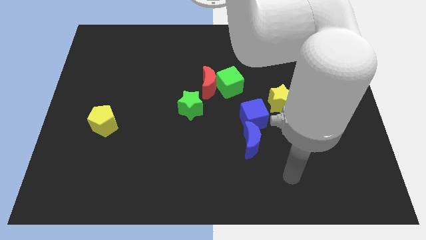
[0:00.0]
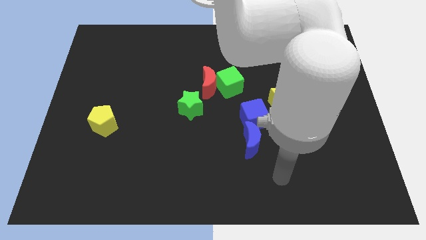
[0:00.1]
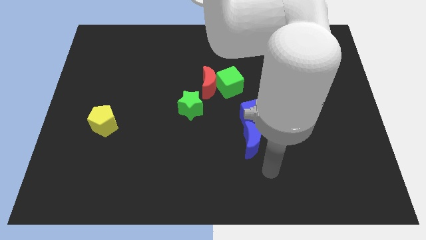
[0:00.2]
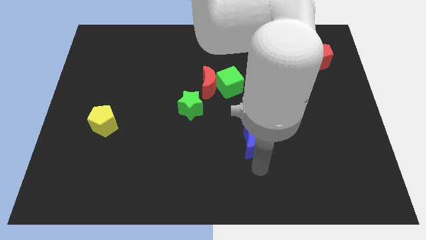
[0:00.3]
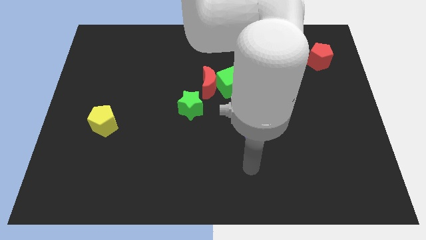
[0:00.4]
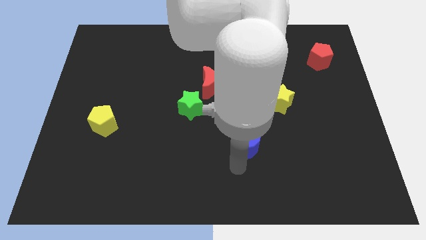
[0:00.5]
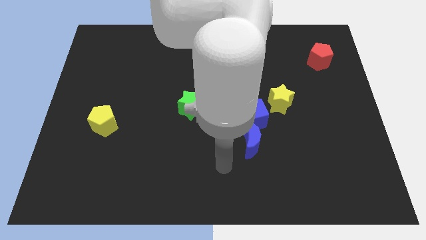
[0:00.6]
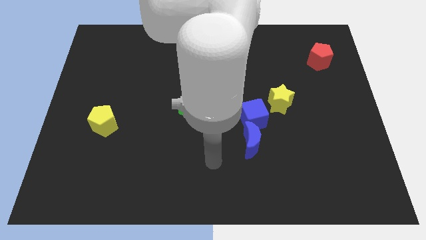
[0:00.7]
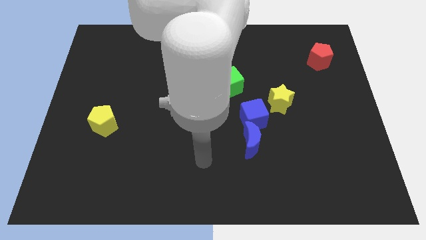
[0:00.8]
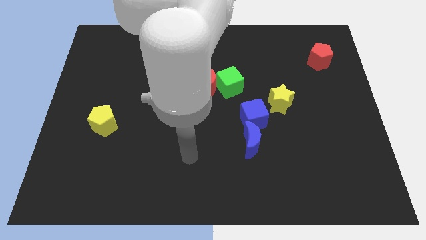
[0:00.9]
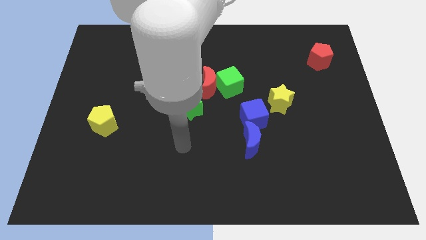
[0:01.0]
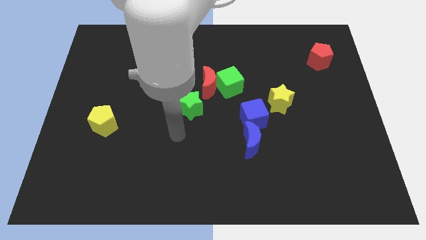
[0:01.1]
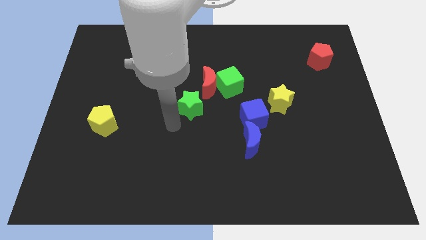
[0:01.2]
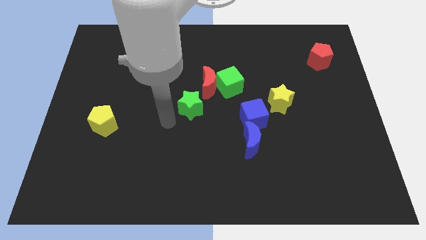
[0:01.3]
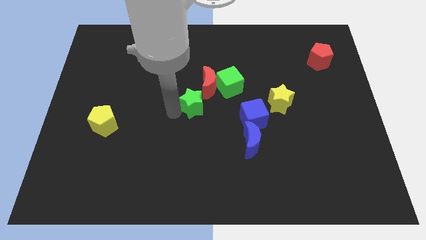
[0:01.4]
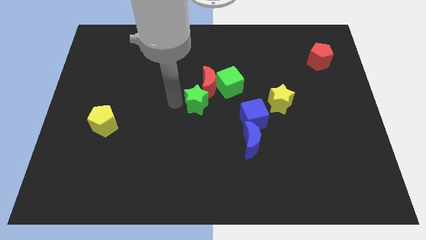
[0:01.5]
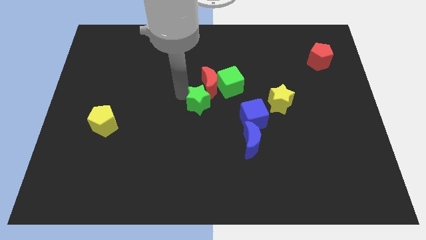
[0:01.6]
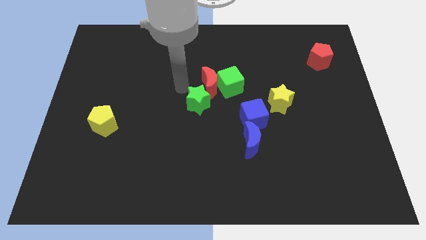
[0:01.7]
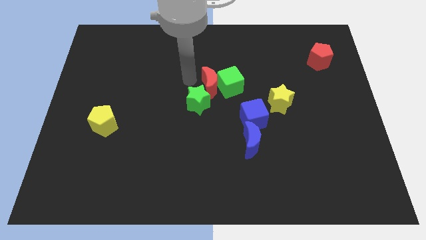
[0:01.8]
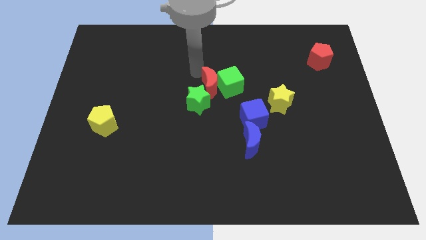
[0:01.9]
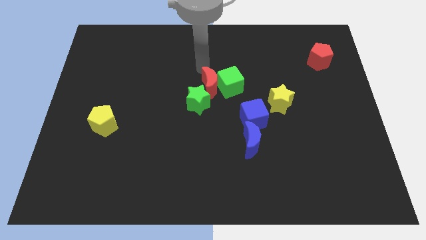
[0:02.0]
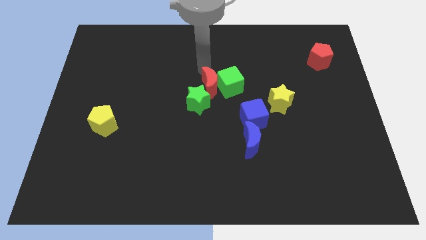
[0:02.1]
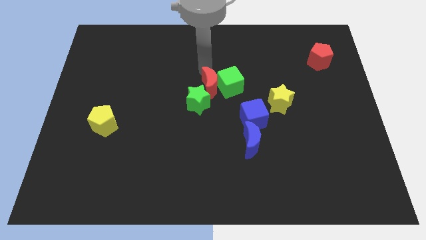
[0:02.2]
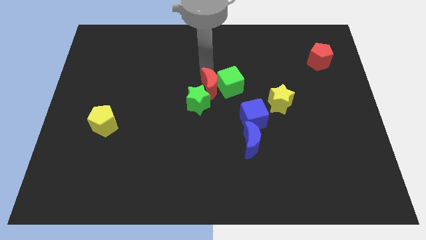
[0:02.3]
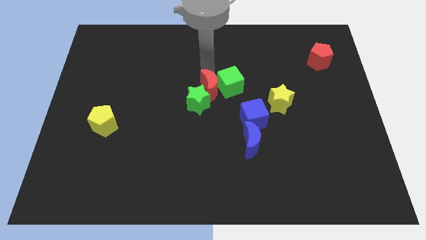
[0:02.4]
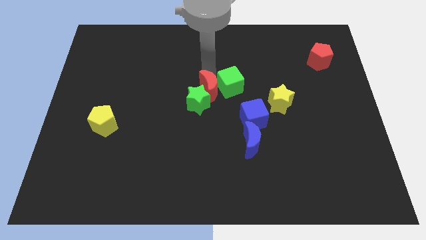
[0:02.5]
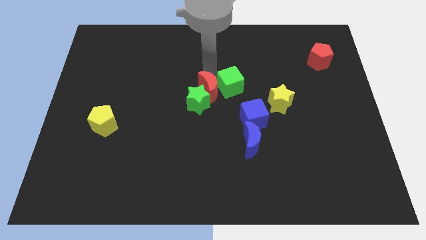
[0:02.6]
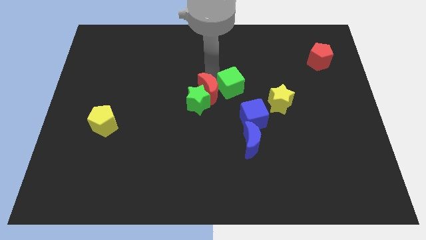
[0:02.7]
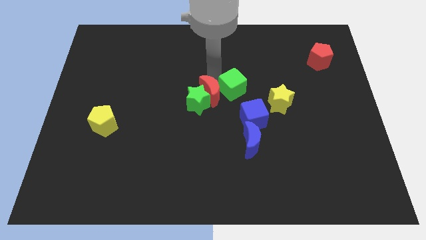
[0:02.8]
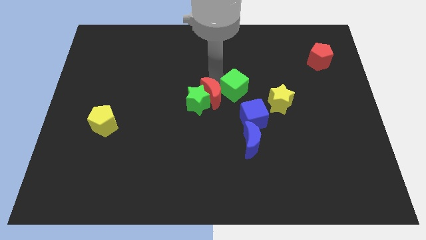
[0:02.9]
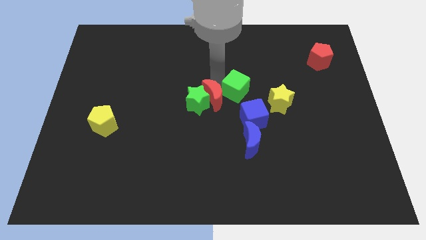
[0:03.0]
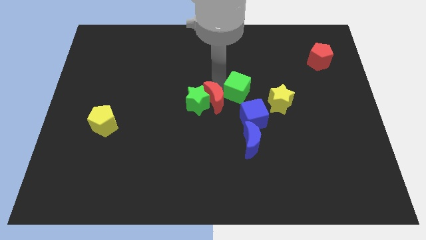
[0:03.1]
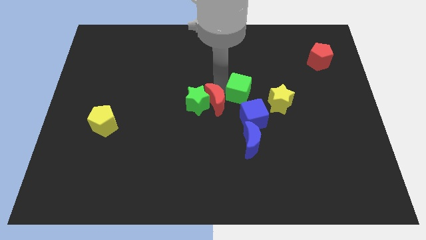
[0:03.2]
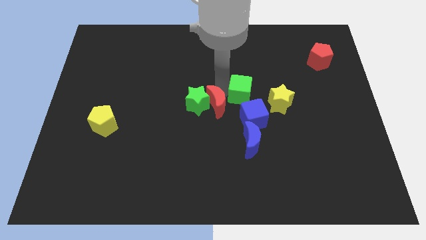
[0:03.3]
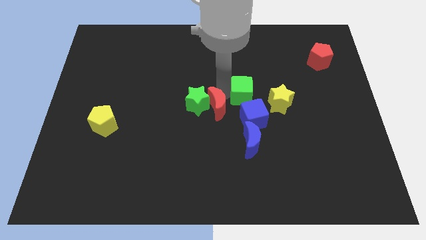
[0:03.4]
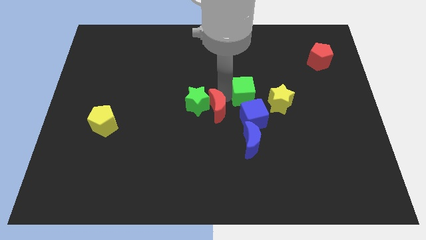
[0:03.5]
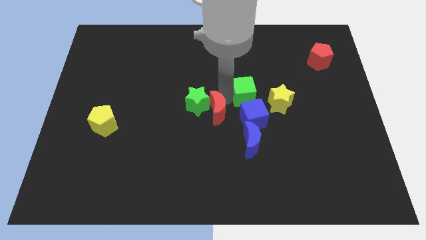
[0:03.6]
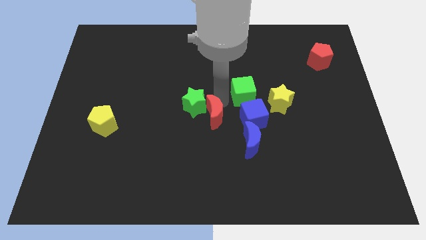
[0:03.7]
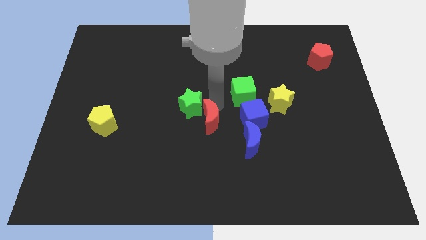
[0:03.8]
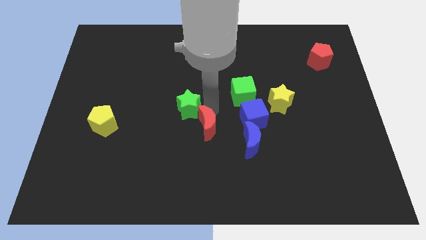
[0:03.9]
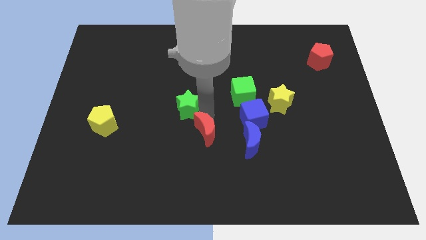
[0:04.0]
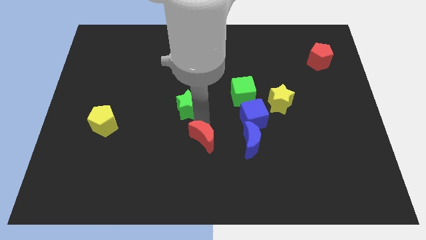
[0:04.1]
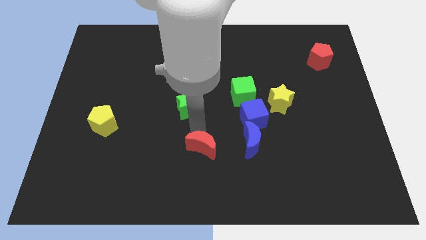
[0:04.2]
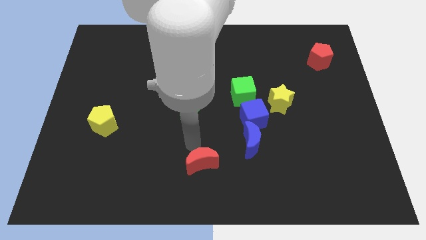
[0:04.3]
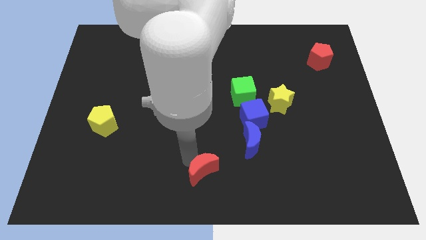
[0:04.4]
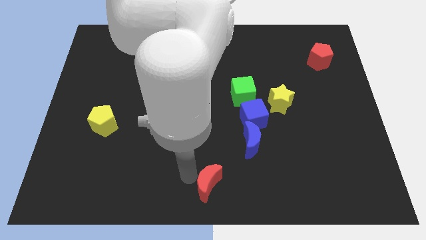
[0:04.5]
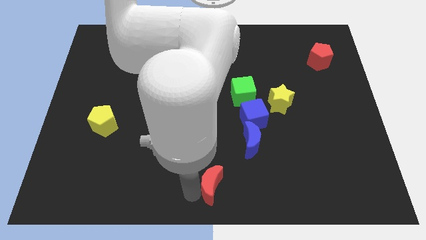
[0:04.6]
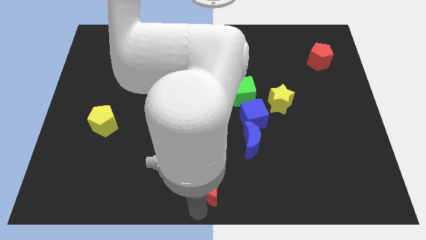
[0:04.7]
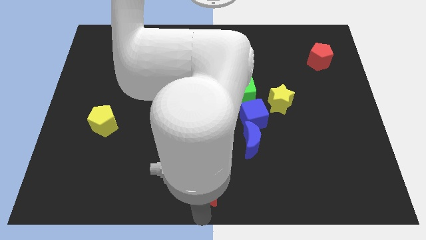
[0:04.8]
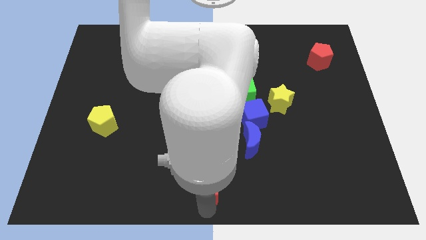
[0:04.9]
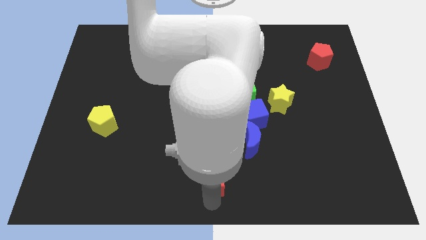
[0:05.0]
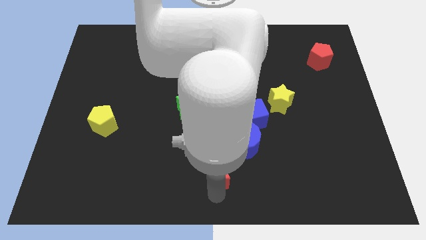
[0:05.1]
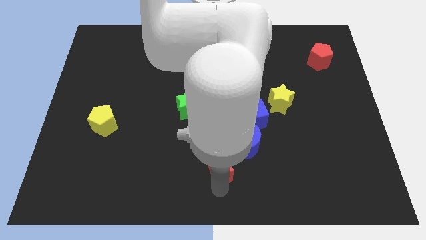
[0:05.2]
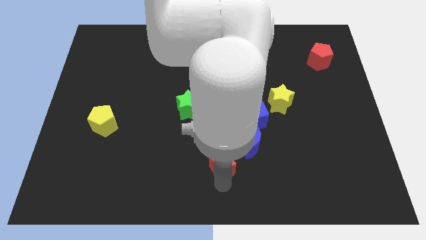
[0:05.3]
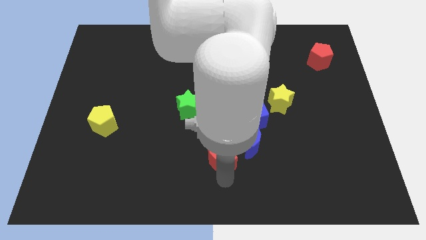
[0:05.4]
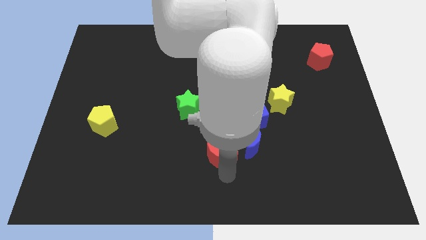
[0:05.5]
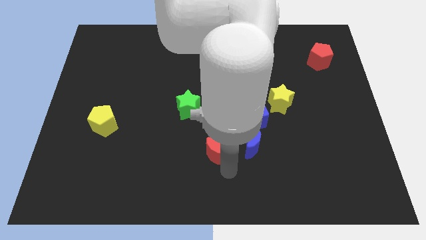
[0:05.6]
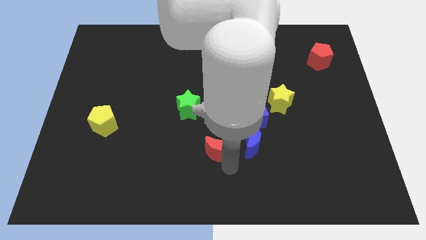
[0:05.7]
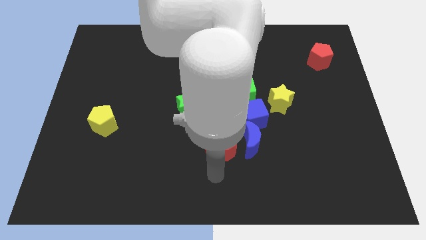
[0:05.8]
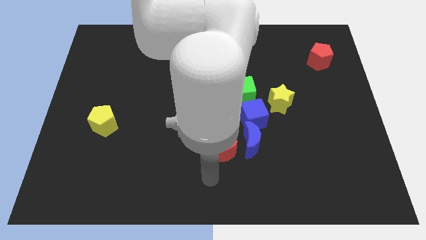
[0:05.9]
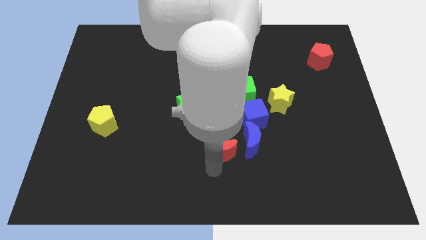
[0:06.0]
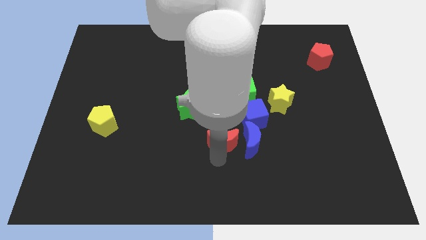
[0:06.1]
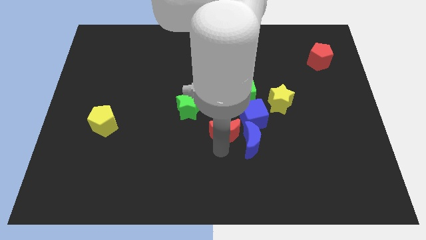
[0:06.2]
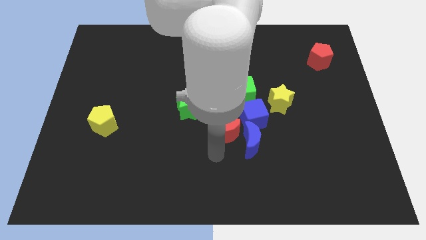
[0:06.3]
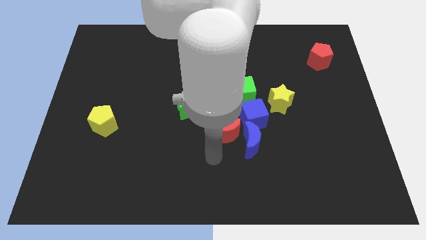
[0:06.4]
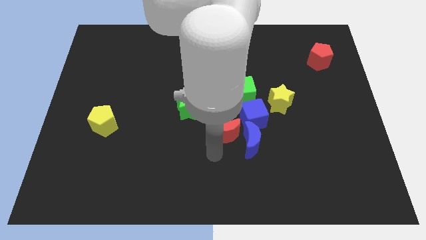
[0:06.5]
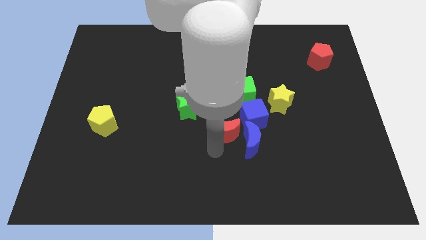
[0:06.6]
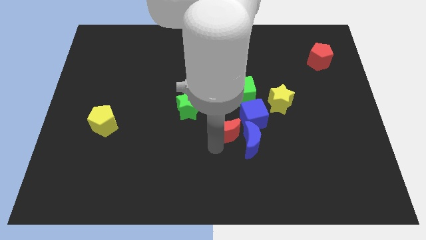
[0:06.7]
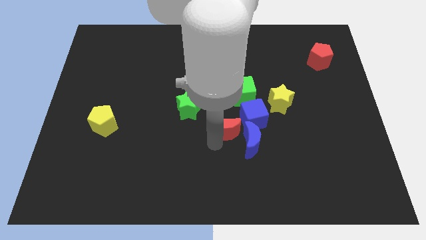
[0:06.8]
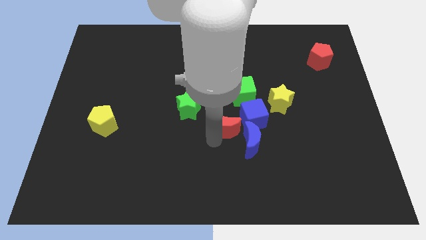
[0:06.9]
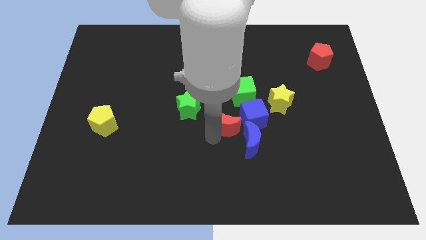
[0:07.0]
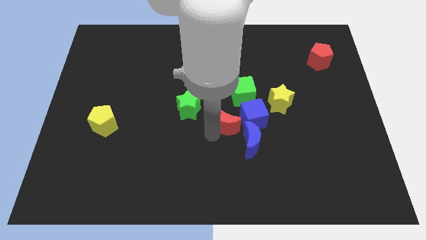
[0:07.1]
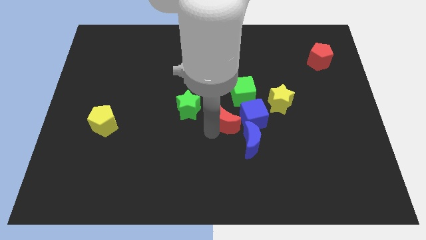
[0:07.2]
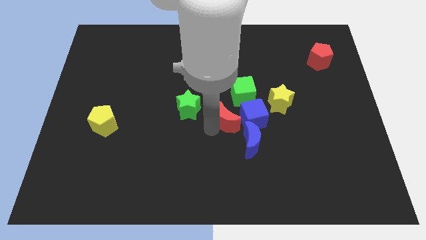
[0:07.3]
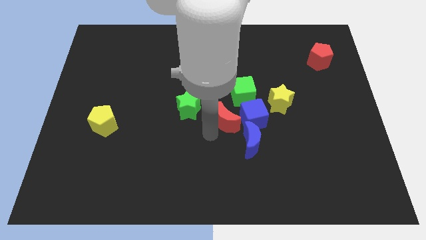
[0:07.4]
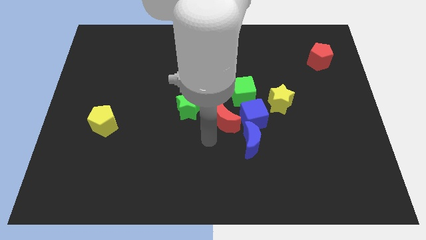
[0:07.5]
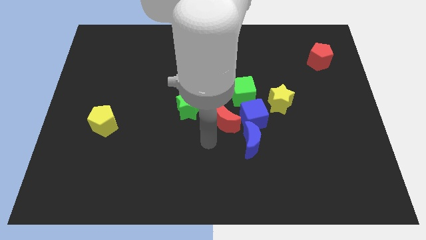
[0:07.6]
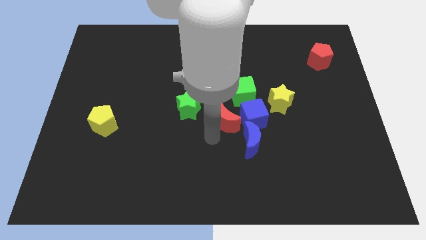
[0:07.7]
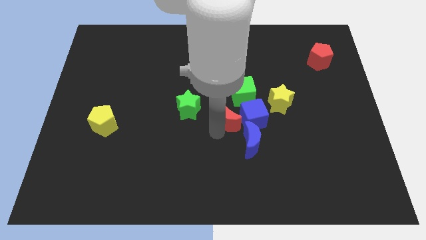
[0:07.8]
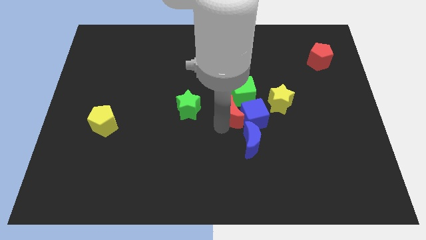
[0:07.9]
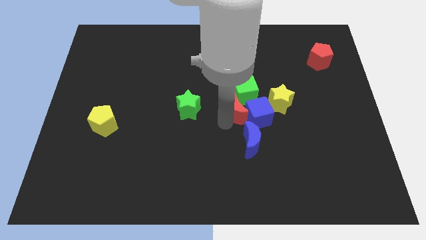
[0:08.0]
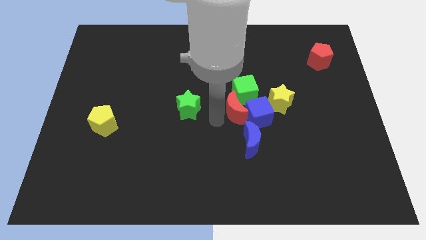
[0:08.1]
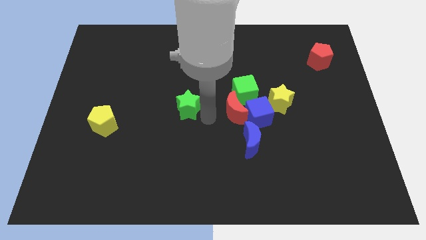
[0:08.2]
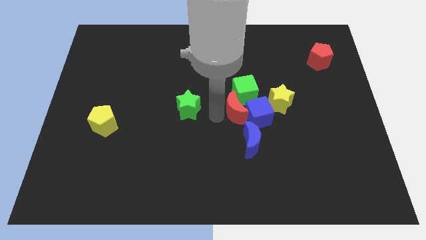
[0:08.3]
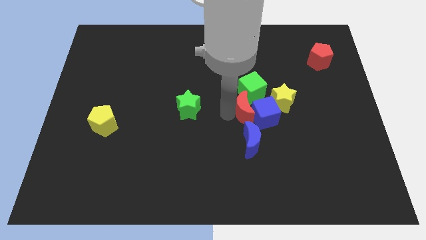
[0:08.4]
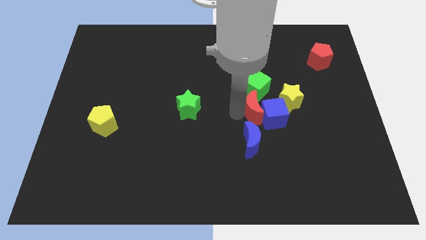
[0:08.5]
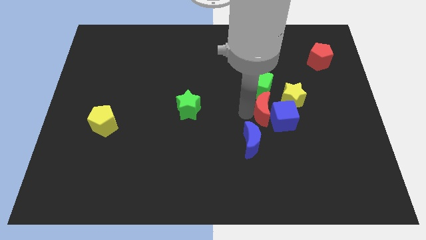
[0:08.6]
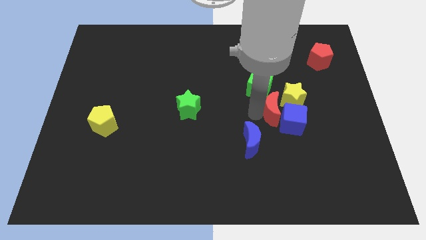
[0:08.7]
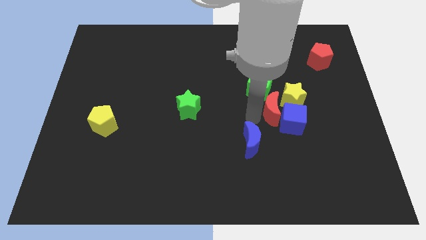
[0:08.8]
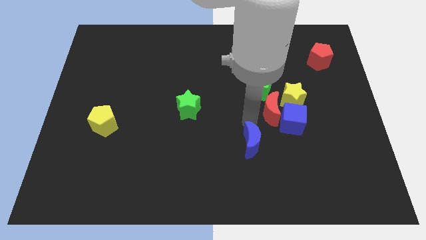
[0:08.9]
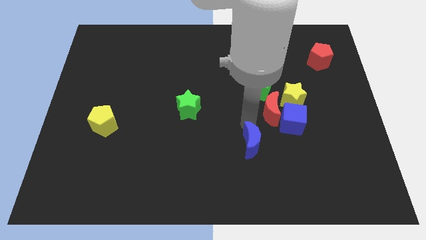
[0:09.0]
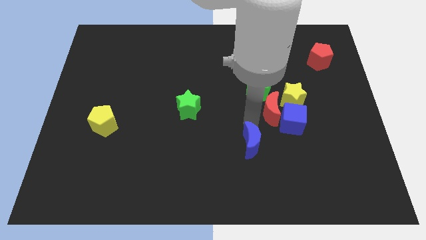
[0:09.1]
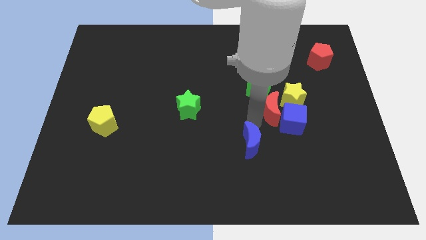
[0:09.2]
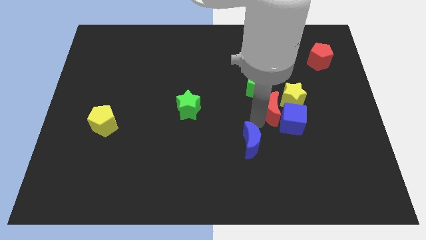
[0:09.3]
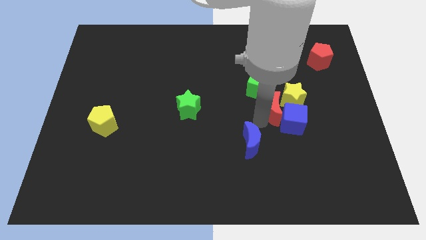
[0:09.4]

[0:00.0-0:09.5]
move the red moon close to the yellow star
